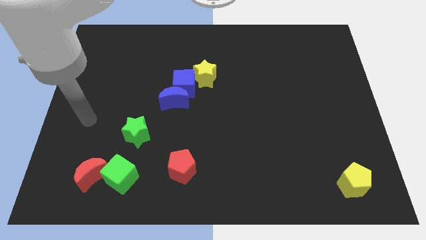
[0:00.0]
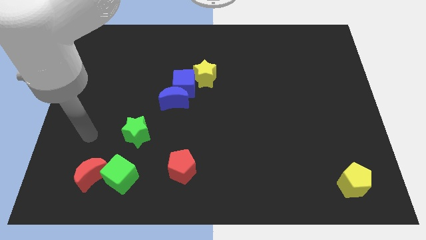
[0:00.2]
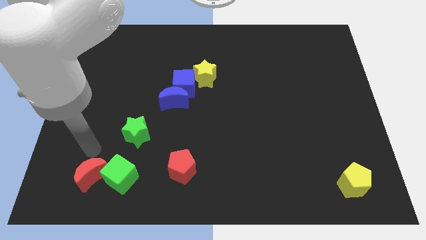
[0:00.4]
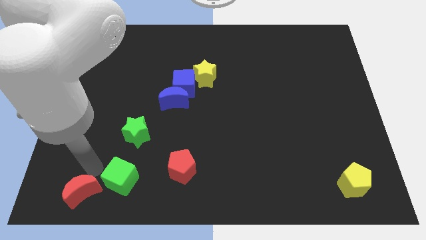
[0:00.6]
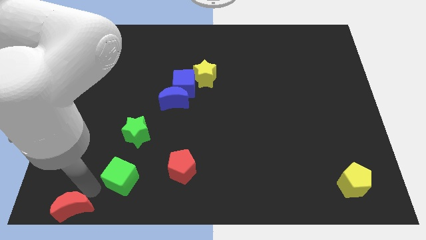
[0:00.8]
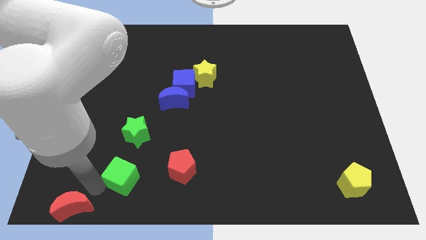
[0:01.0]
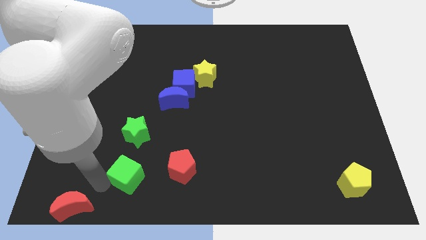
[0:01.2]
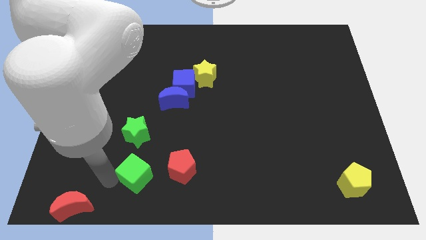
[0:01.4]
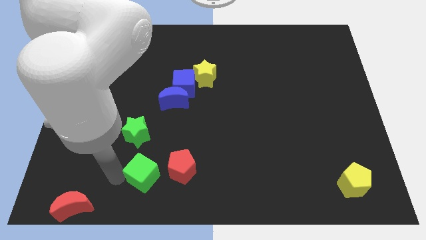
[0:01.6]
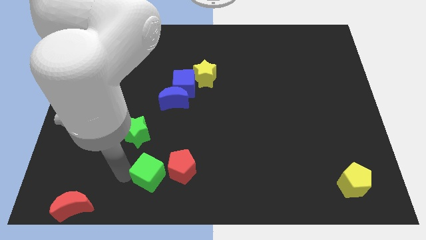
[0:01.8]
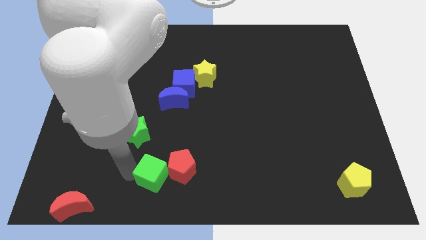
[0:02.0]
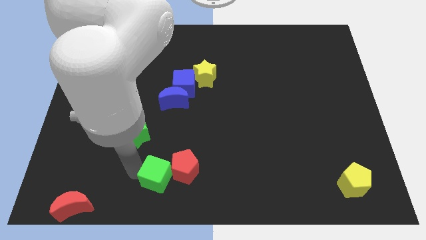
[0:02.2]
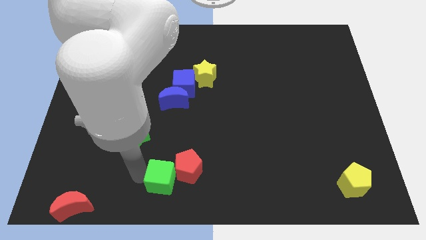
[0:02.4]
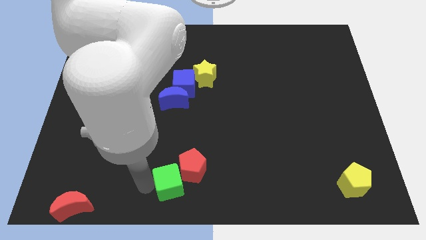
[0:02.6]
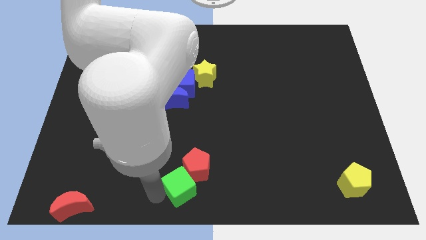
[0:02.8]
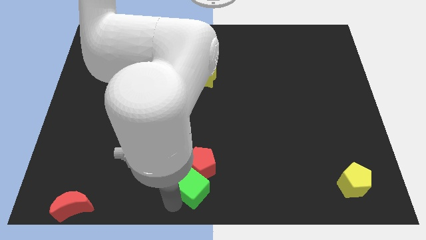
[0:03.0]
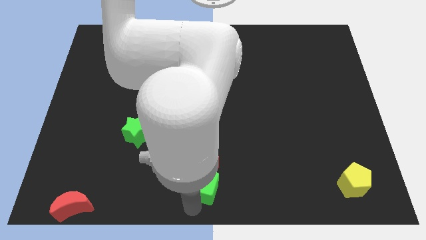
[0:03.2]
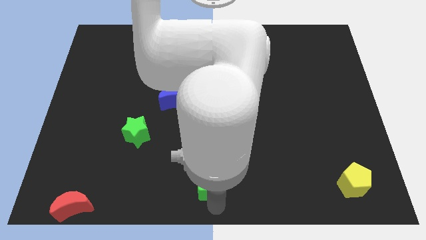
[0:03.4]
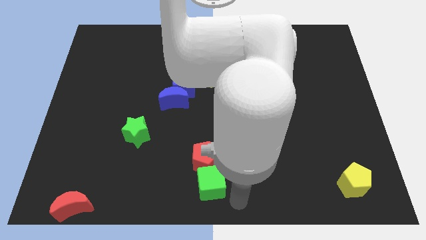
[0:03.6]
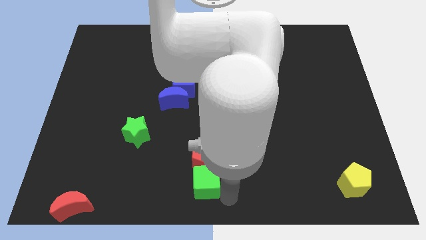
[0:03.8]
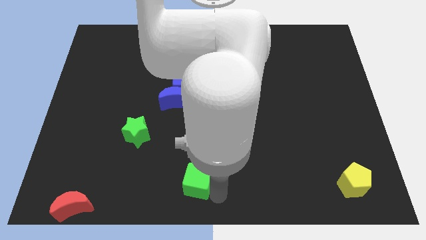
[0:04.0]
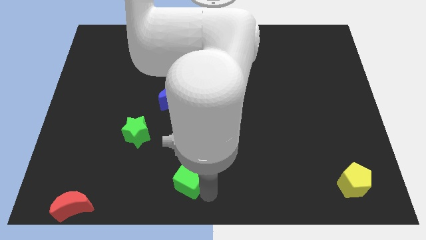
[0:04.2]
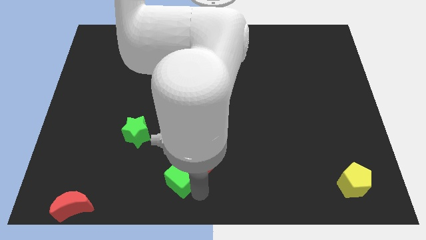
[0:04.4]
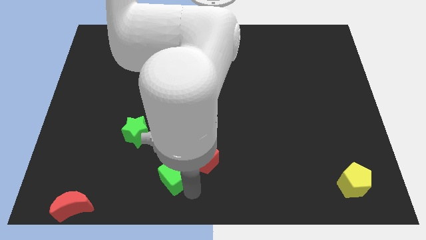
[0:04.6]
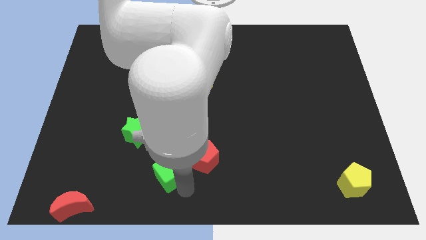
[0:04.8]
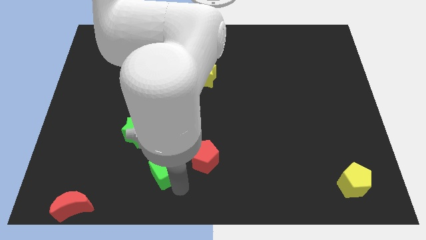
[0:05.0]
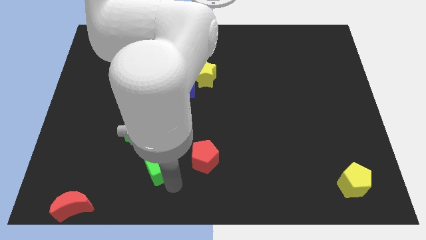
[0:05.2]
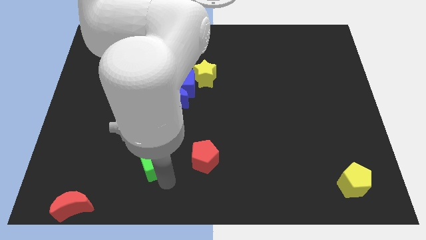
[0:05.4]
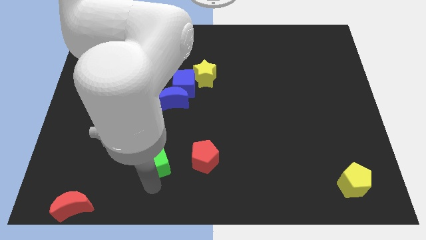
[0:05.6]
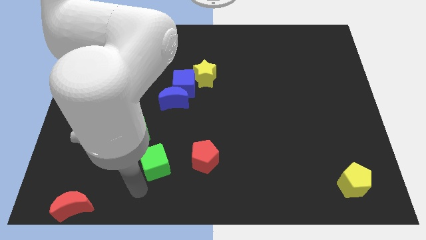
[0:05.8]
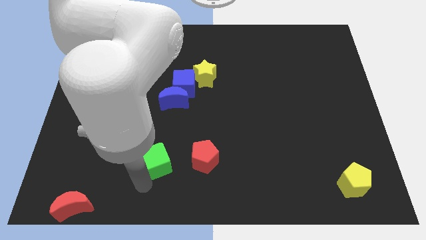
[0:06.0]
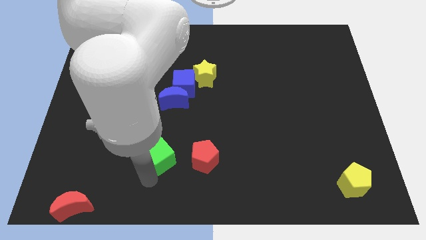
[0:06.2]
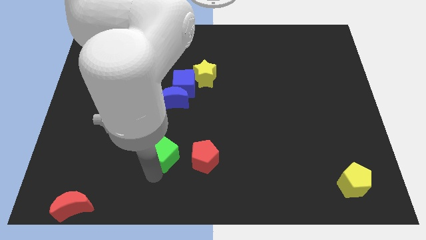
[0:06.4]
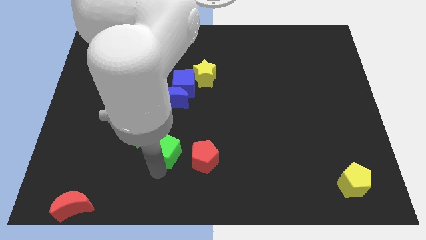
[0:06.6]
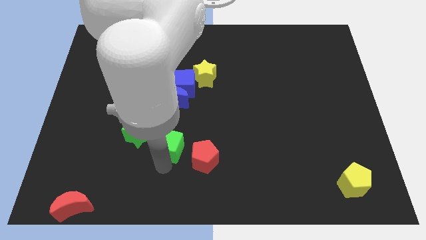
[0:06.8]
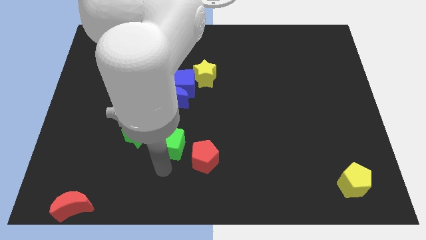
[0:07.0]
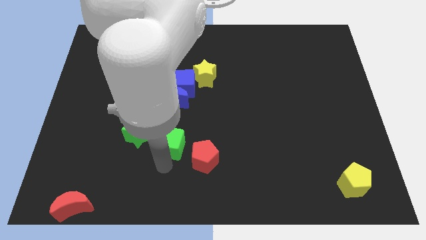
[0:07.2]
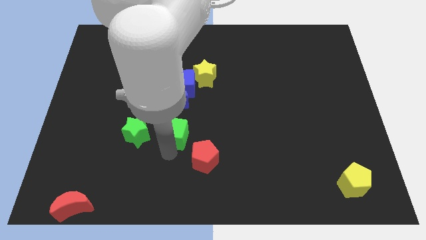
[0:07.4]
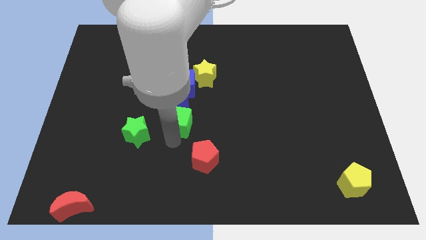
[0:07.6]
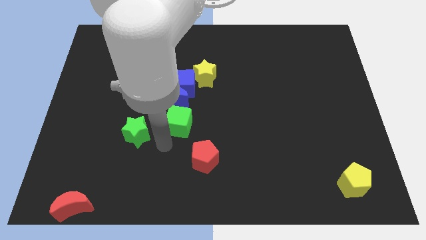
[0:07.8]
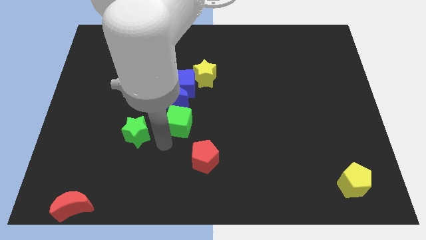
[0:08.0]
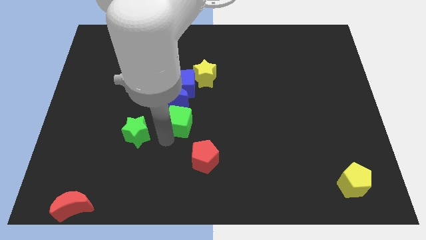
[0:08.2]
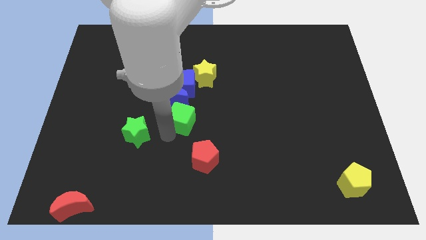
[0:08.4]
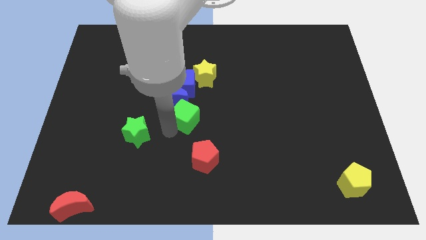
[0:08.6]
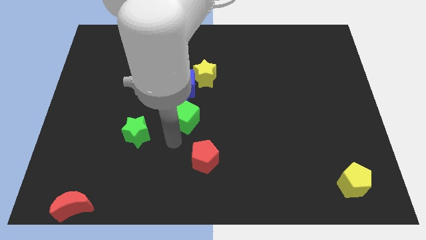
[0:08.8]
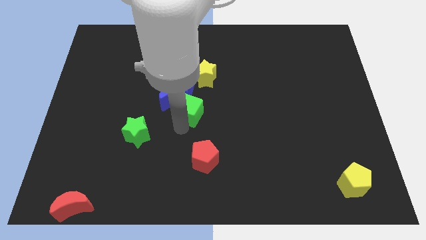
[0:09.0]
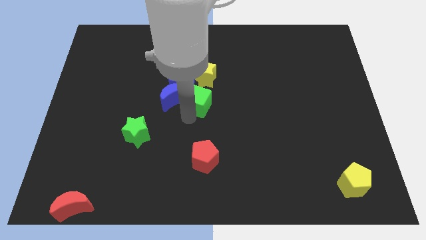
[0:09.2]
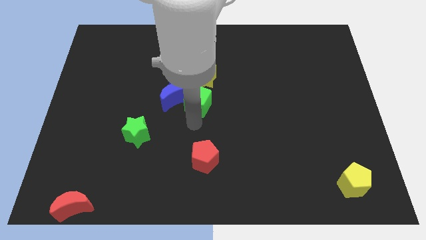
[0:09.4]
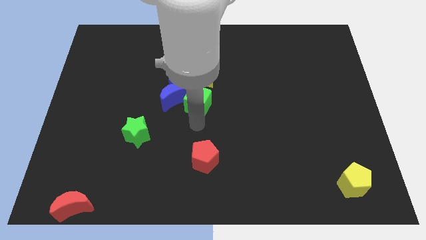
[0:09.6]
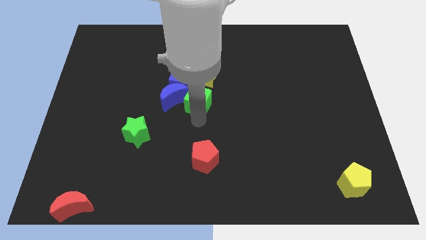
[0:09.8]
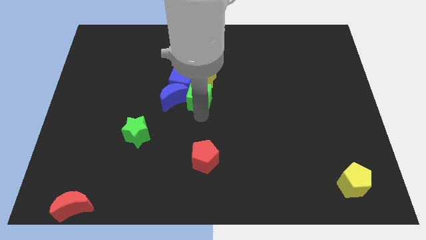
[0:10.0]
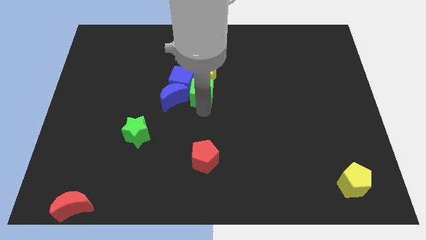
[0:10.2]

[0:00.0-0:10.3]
push the green cube close to the yellow star

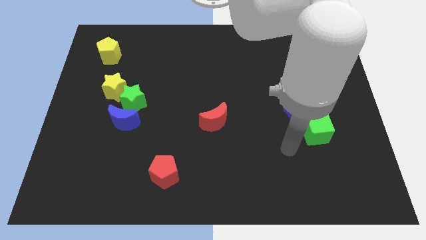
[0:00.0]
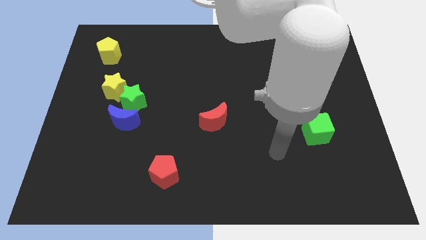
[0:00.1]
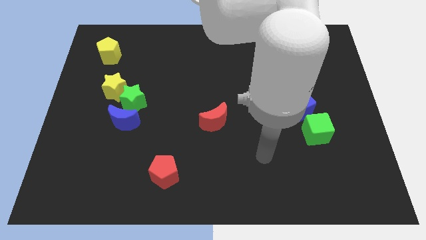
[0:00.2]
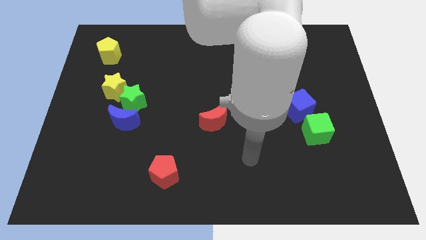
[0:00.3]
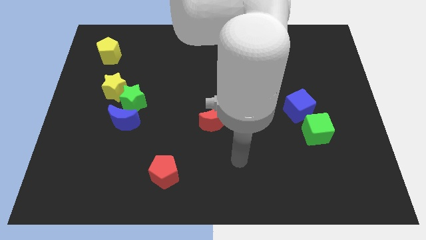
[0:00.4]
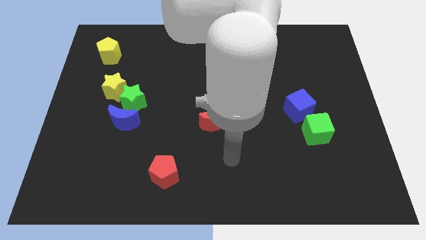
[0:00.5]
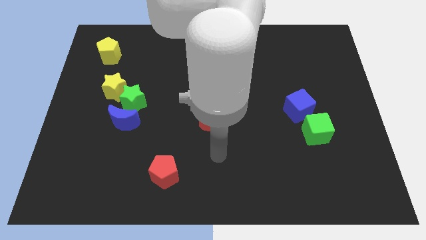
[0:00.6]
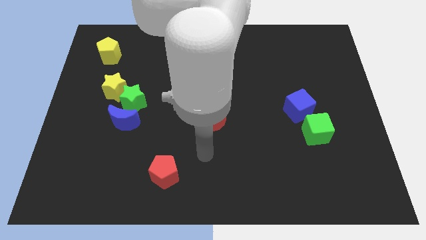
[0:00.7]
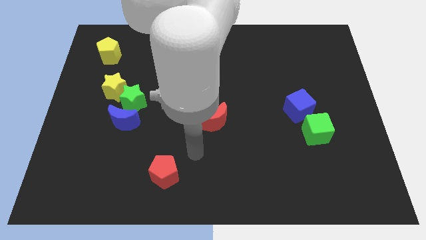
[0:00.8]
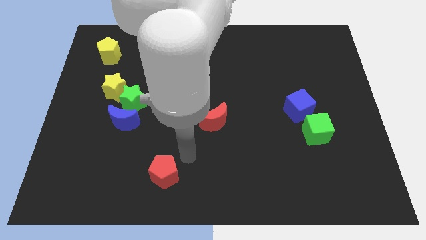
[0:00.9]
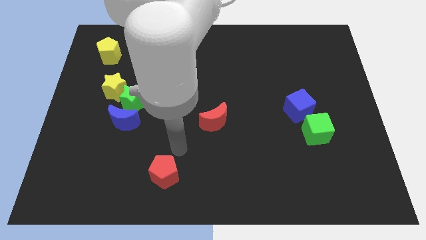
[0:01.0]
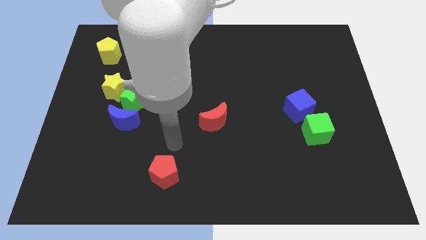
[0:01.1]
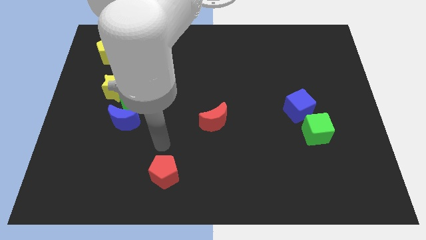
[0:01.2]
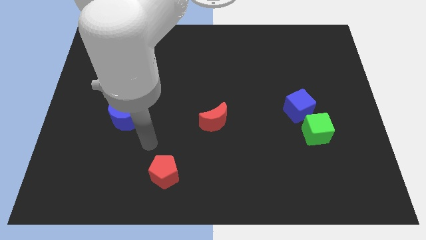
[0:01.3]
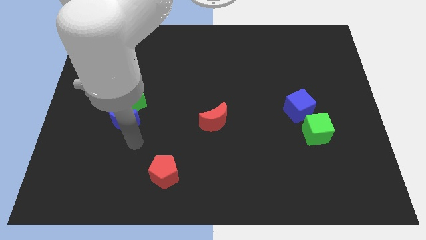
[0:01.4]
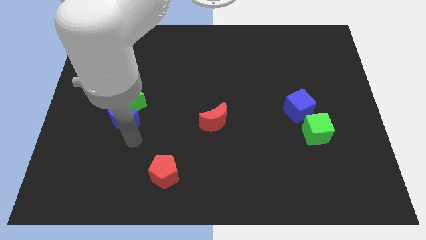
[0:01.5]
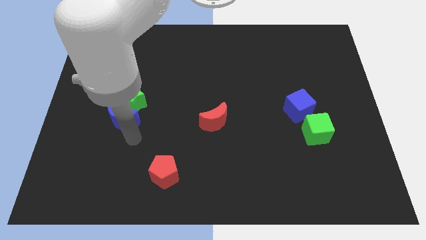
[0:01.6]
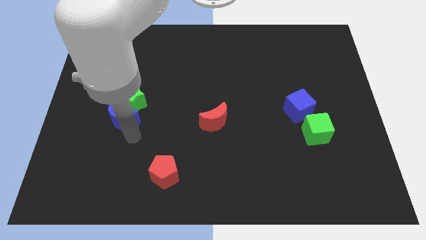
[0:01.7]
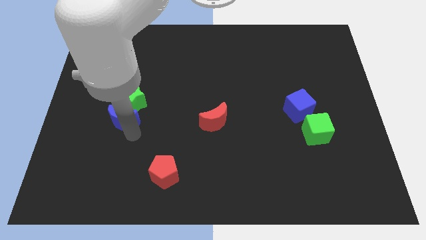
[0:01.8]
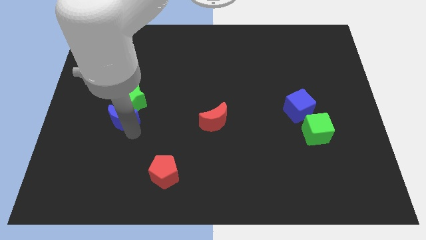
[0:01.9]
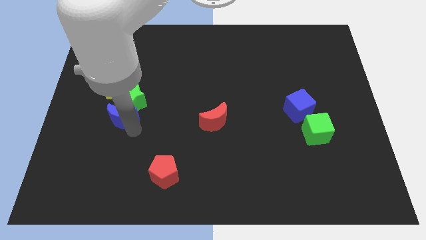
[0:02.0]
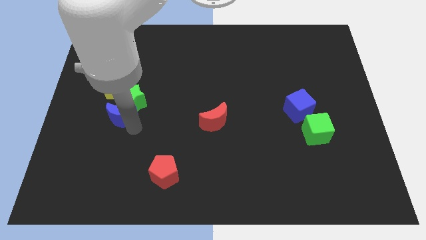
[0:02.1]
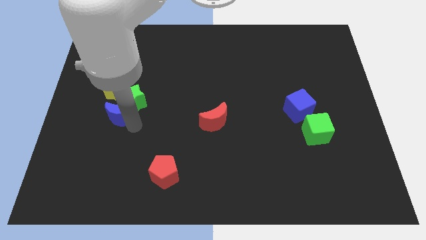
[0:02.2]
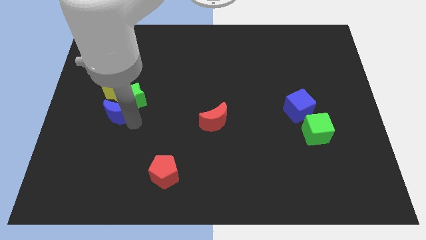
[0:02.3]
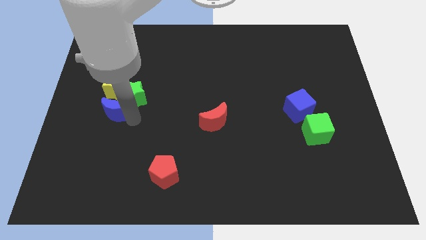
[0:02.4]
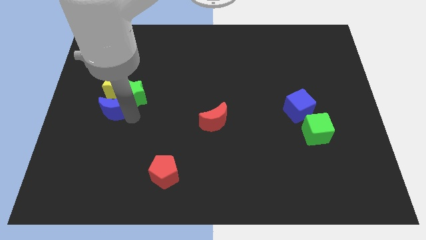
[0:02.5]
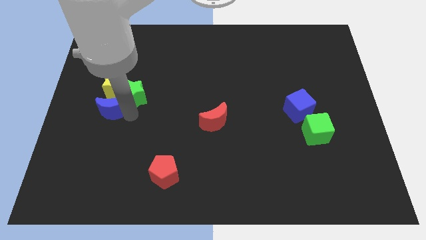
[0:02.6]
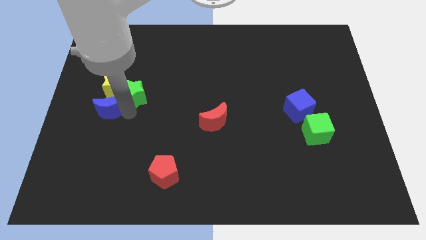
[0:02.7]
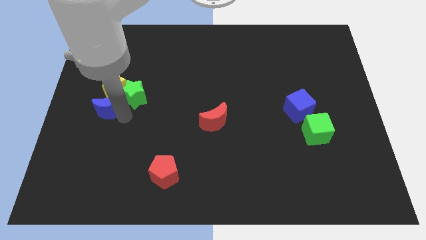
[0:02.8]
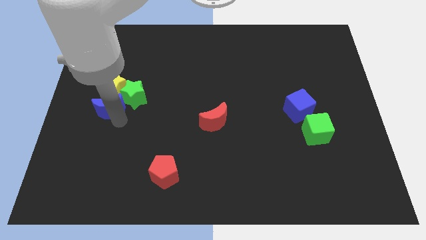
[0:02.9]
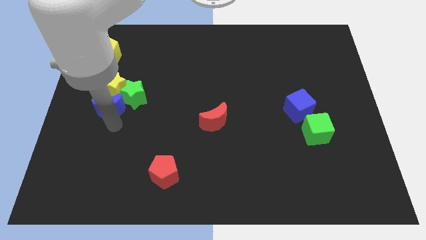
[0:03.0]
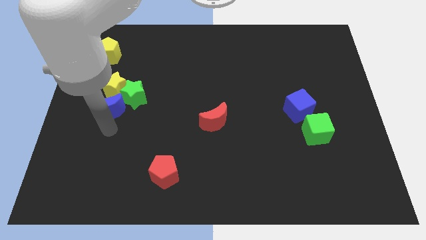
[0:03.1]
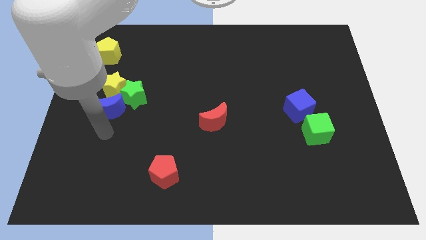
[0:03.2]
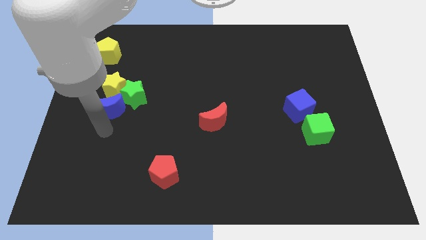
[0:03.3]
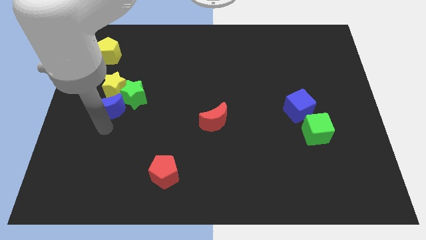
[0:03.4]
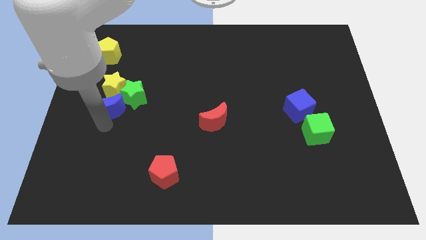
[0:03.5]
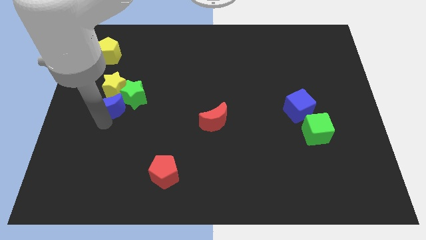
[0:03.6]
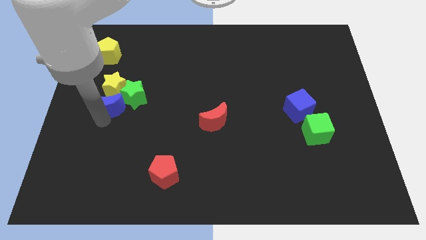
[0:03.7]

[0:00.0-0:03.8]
put the blue moon close to the yellow star
